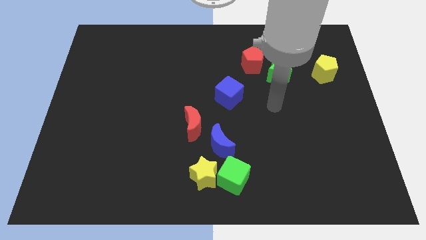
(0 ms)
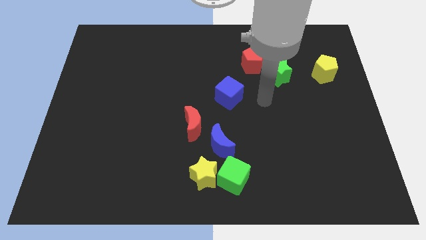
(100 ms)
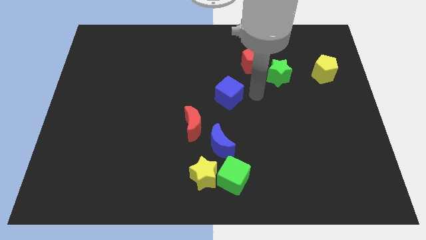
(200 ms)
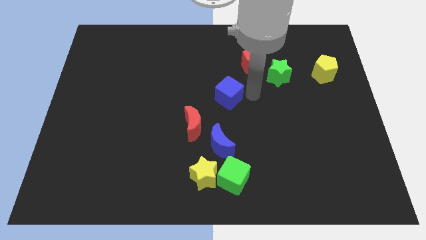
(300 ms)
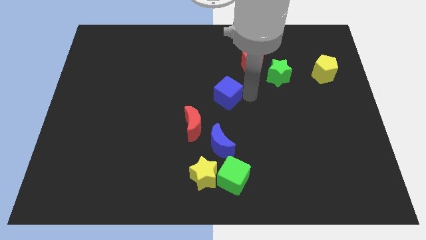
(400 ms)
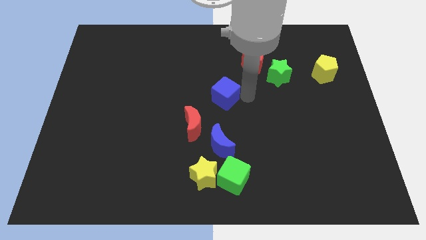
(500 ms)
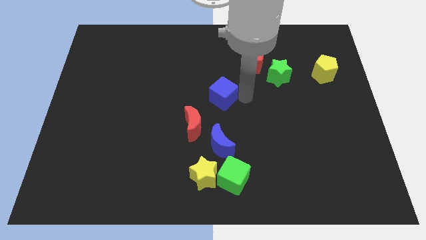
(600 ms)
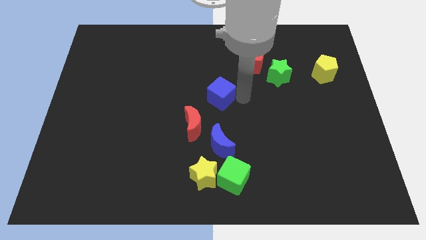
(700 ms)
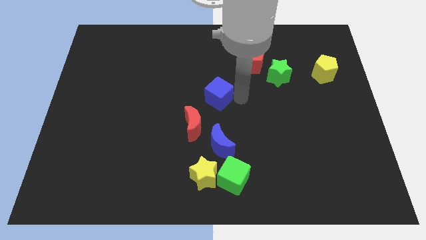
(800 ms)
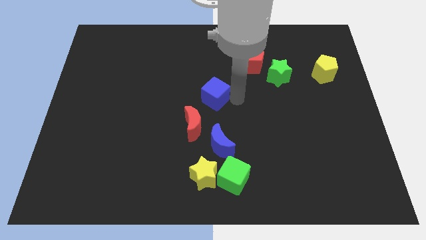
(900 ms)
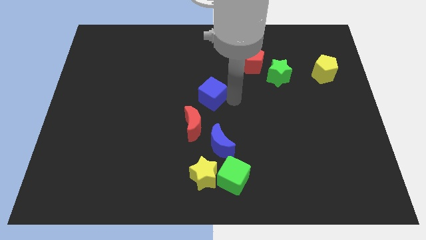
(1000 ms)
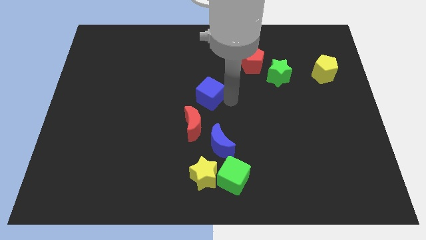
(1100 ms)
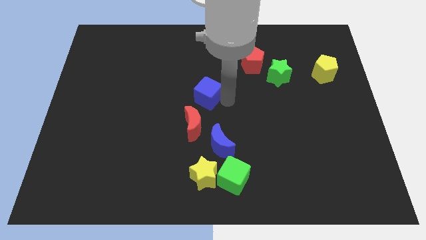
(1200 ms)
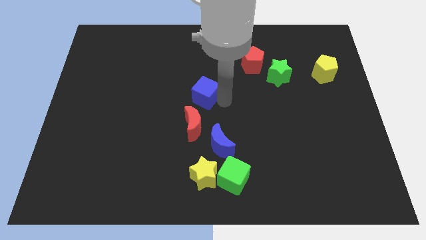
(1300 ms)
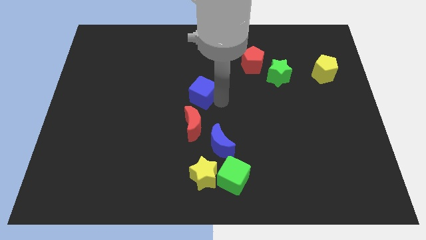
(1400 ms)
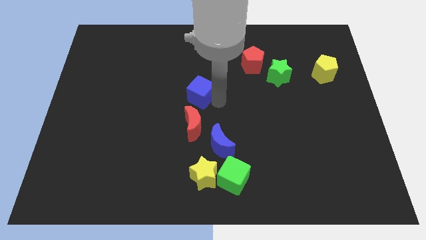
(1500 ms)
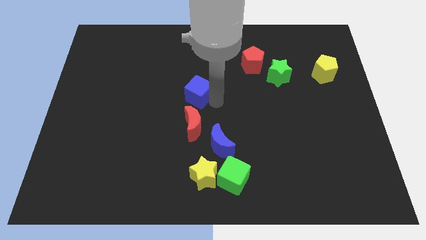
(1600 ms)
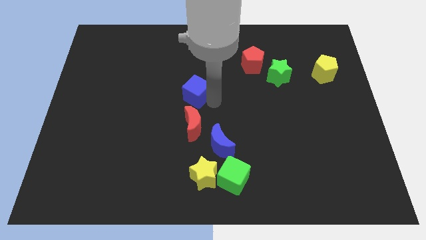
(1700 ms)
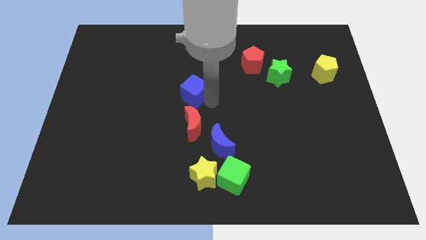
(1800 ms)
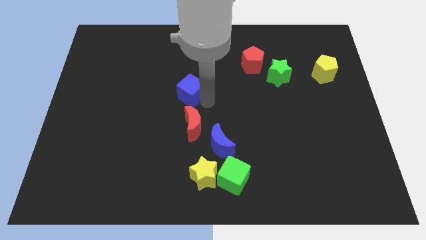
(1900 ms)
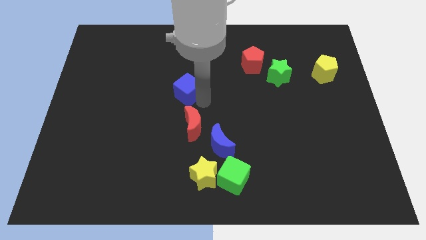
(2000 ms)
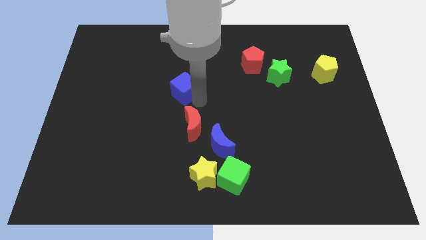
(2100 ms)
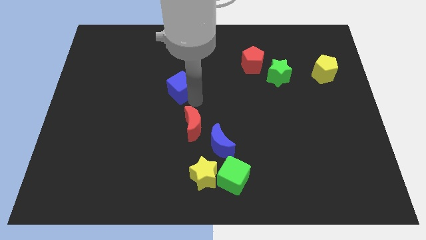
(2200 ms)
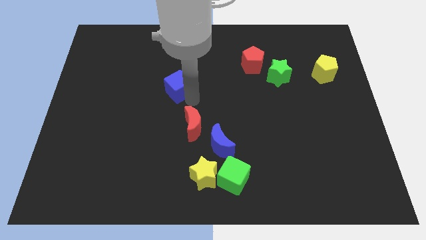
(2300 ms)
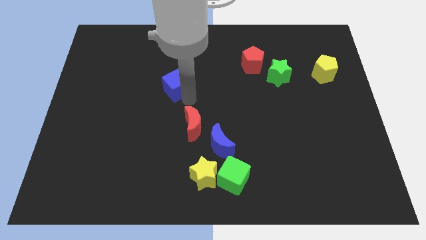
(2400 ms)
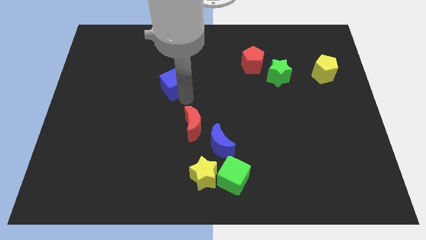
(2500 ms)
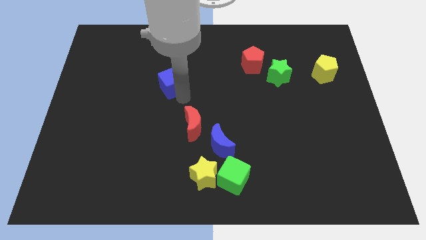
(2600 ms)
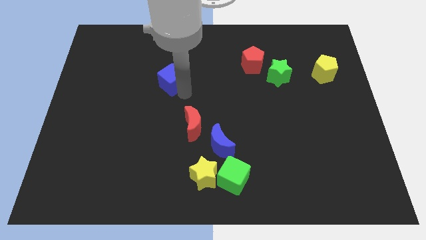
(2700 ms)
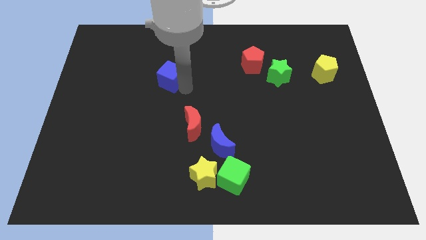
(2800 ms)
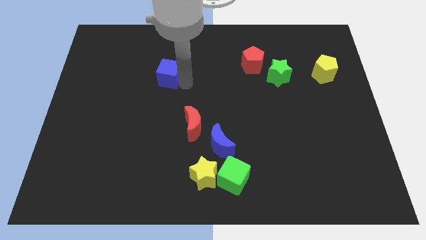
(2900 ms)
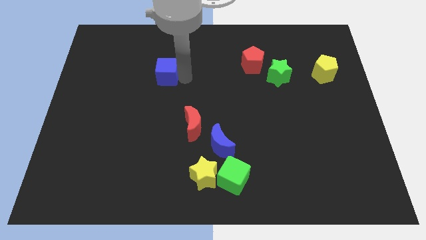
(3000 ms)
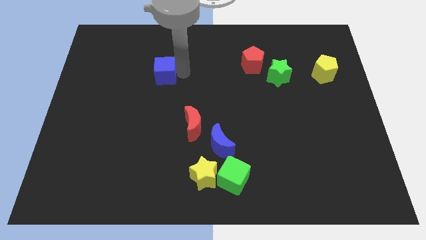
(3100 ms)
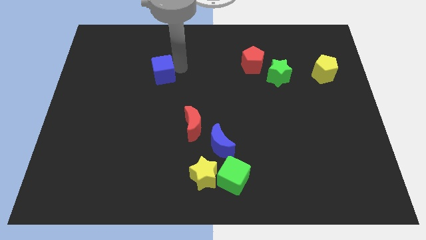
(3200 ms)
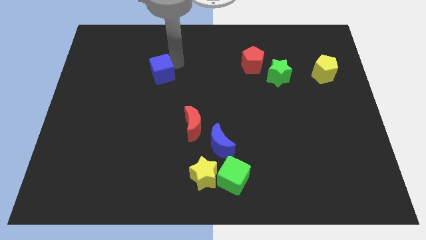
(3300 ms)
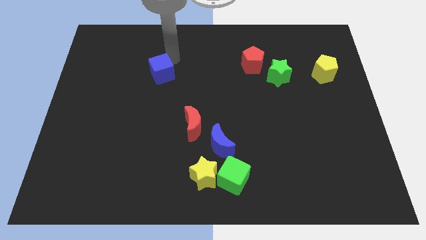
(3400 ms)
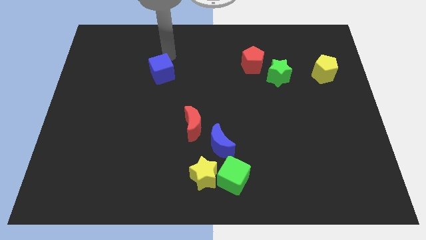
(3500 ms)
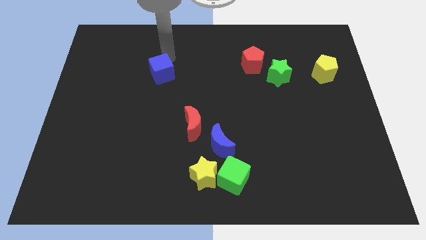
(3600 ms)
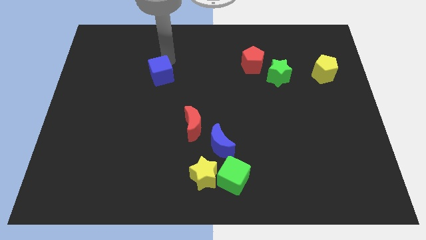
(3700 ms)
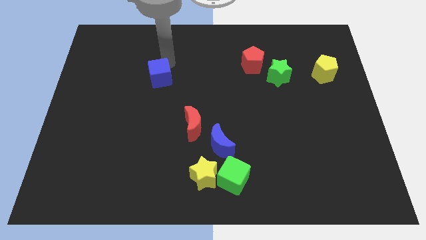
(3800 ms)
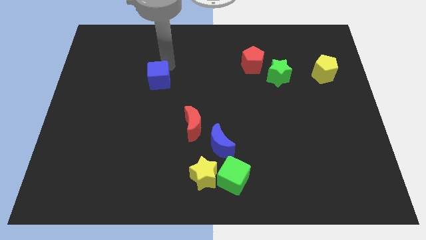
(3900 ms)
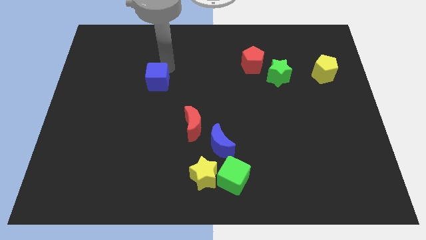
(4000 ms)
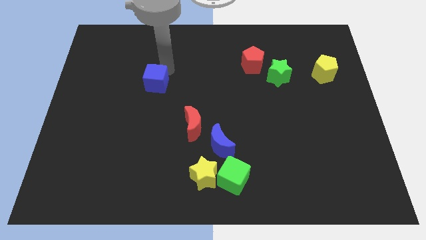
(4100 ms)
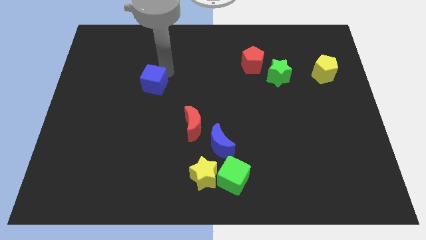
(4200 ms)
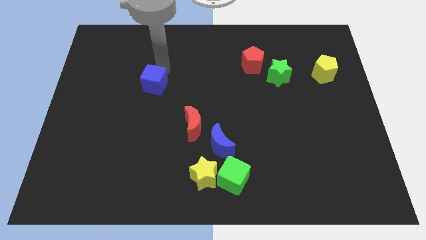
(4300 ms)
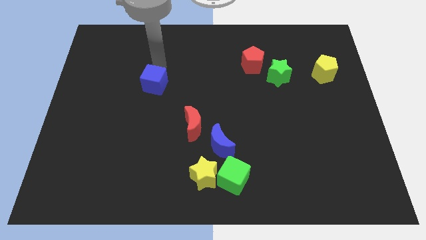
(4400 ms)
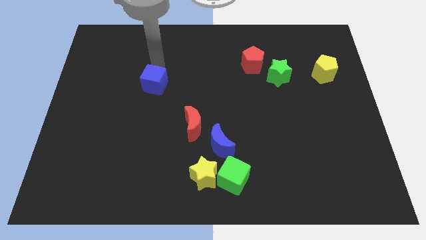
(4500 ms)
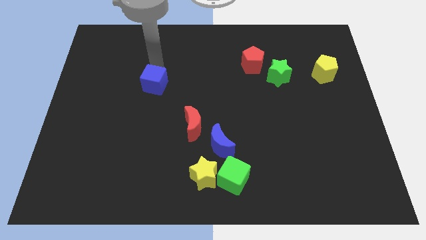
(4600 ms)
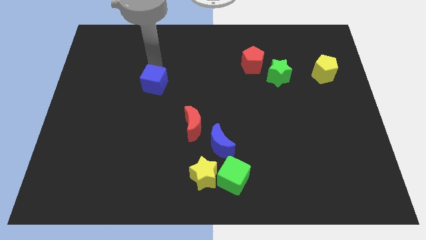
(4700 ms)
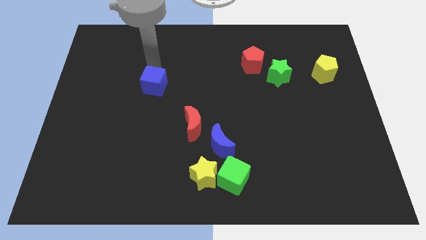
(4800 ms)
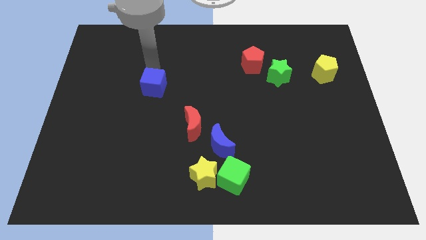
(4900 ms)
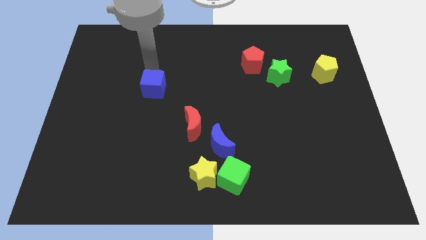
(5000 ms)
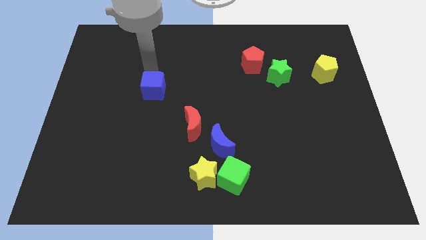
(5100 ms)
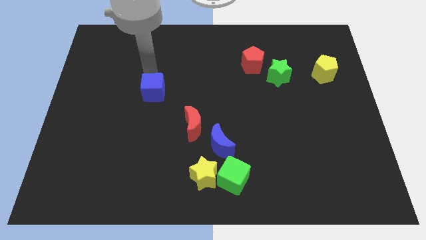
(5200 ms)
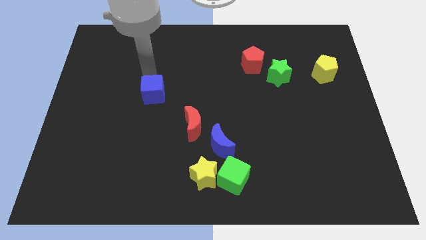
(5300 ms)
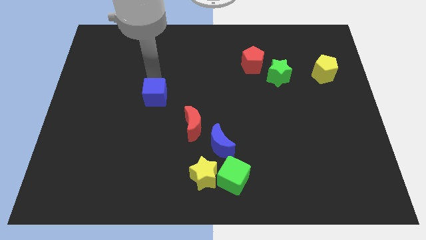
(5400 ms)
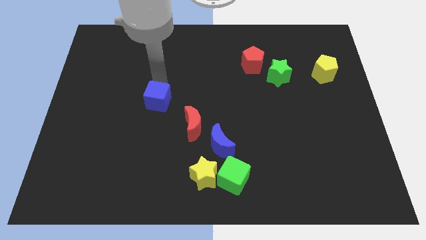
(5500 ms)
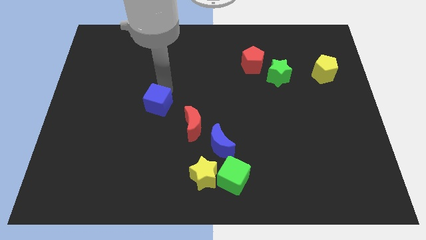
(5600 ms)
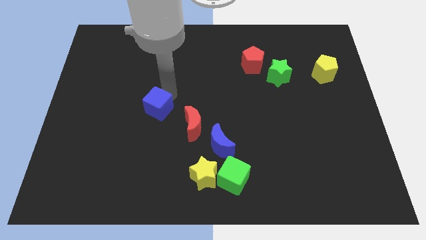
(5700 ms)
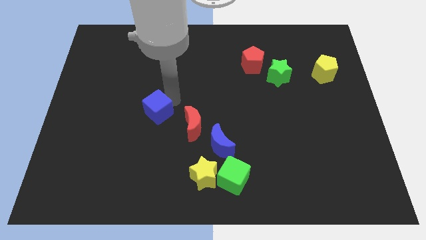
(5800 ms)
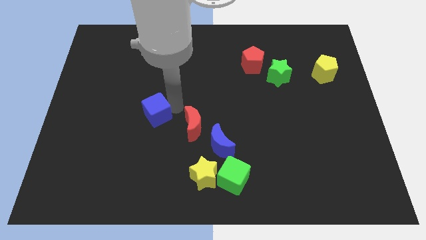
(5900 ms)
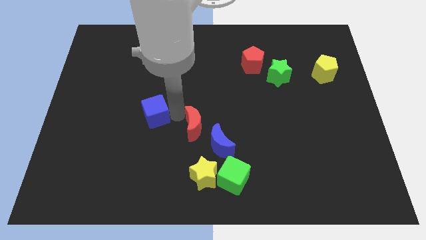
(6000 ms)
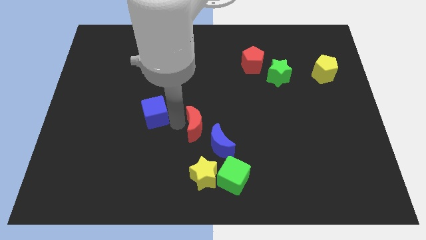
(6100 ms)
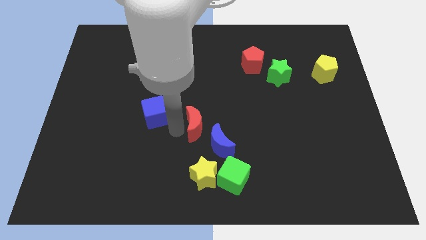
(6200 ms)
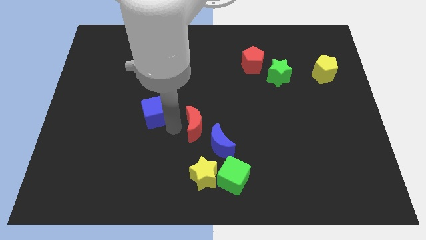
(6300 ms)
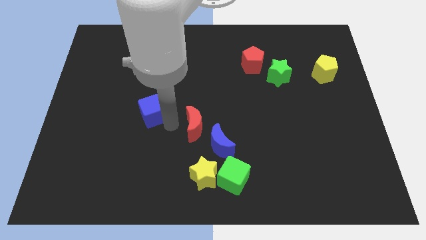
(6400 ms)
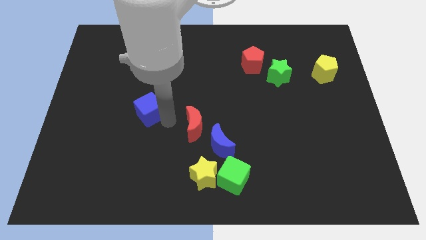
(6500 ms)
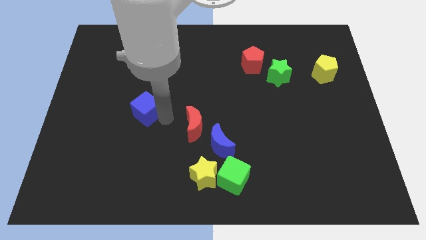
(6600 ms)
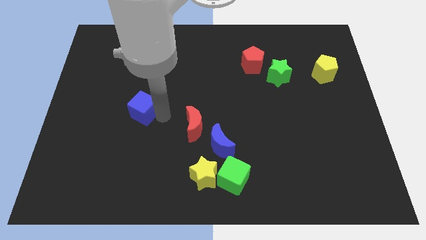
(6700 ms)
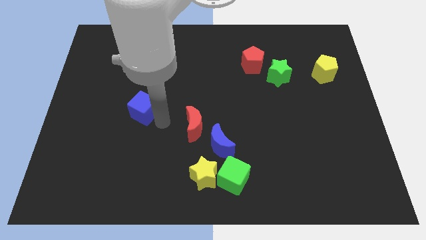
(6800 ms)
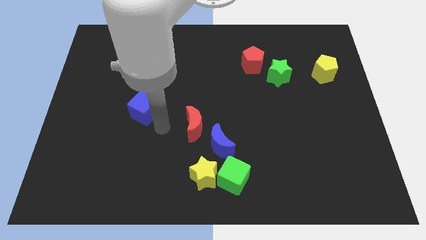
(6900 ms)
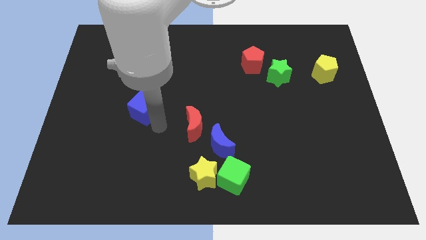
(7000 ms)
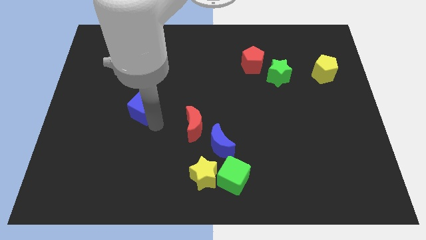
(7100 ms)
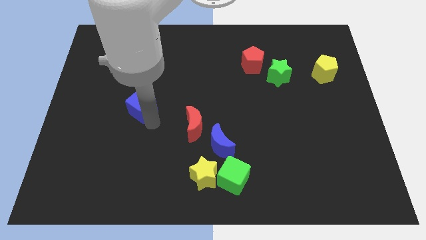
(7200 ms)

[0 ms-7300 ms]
slide the blue cube left

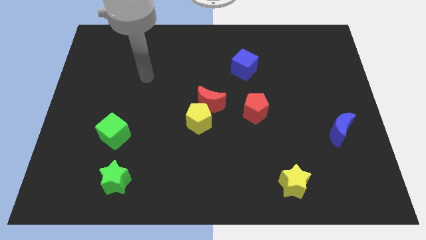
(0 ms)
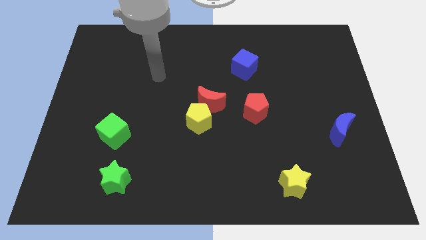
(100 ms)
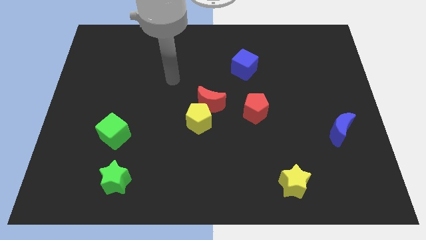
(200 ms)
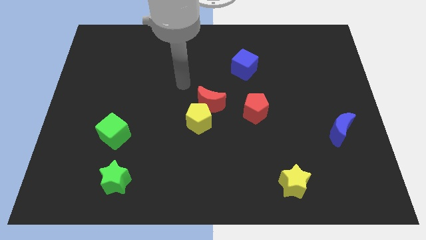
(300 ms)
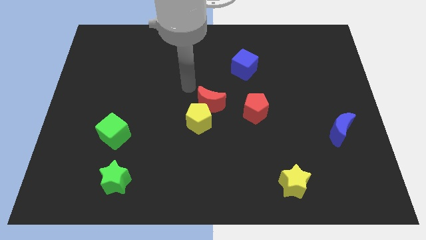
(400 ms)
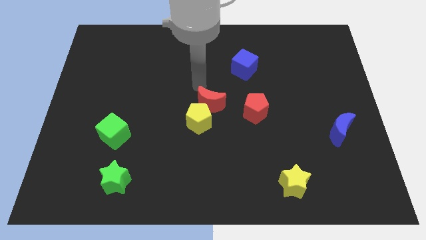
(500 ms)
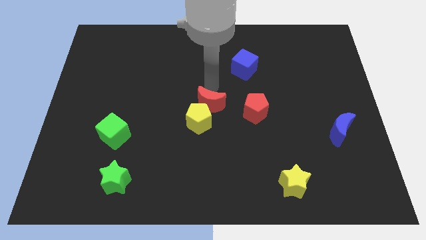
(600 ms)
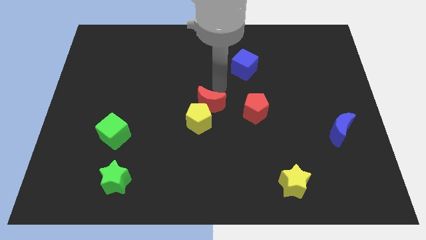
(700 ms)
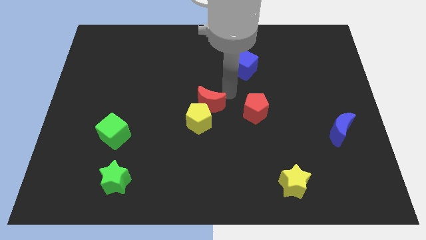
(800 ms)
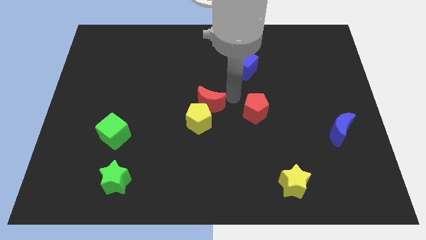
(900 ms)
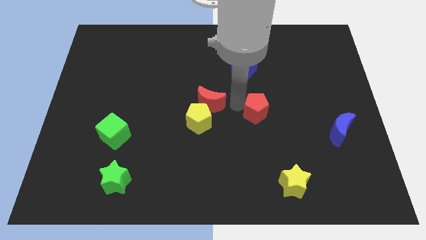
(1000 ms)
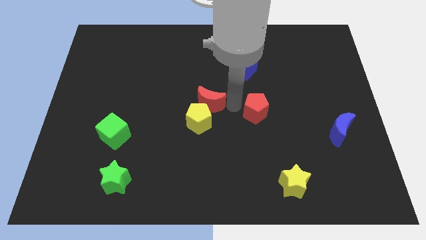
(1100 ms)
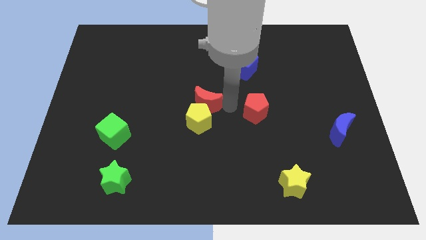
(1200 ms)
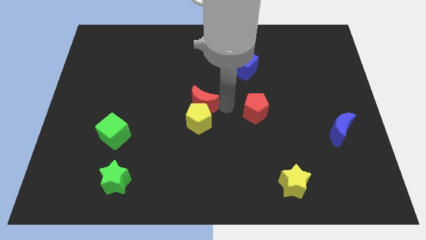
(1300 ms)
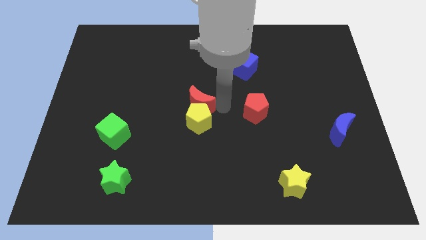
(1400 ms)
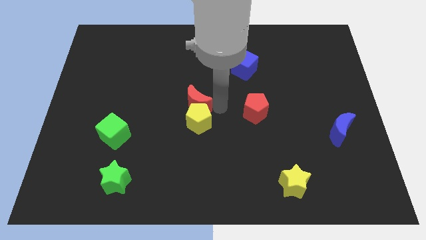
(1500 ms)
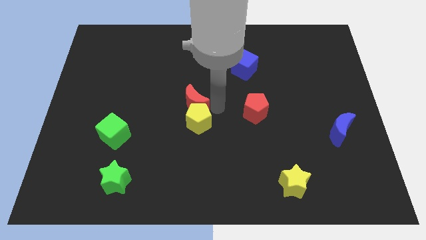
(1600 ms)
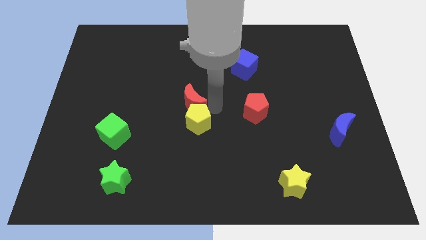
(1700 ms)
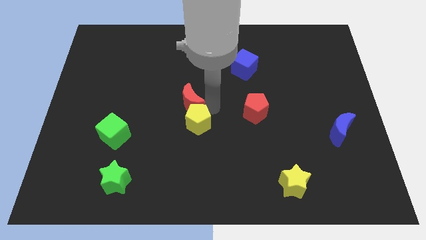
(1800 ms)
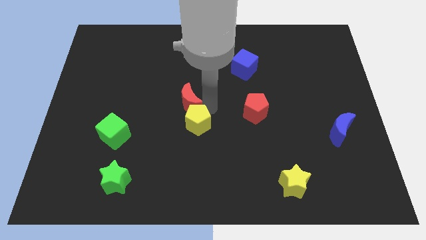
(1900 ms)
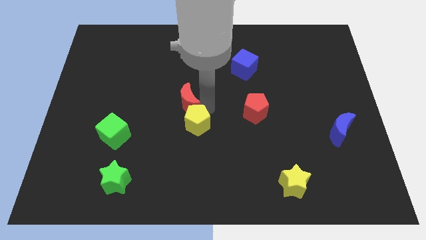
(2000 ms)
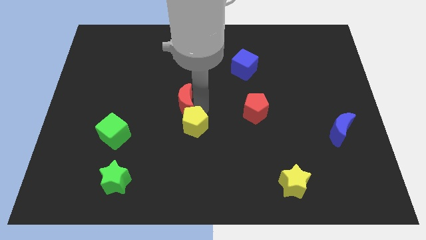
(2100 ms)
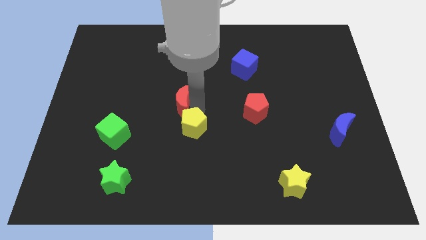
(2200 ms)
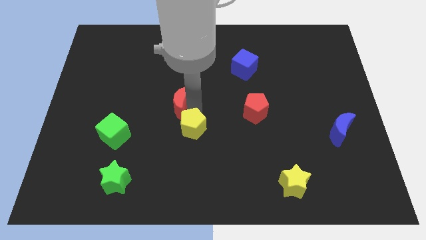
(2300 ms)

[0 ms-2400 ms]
move the red moon left a little
